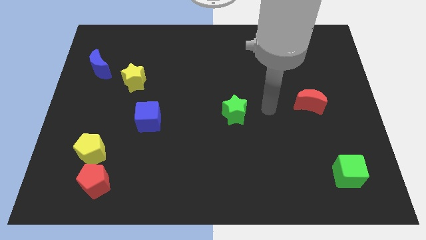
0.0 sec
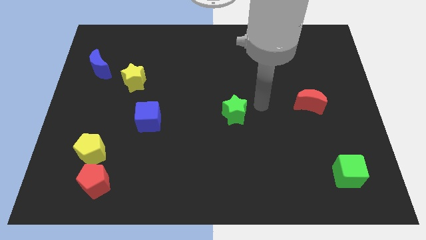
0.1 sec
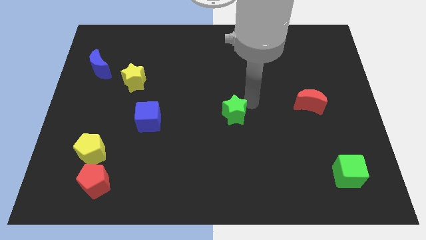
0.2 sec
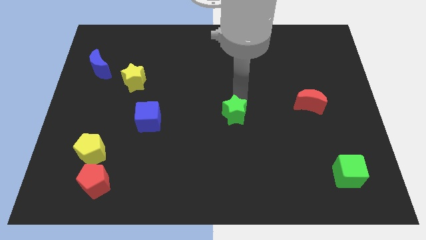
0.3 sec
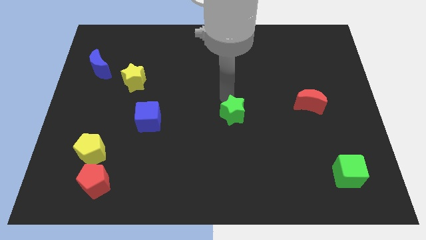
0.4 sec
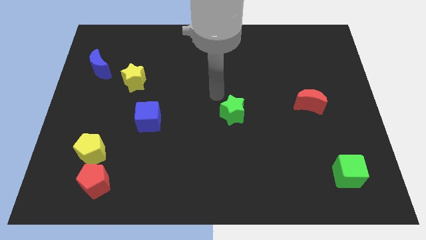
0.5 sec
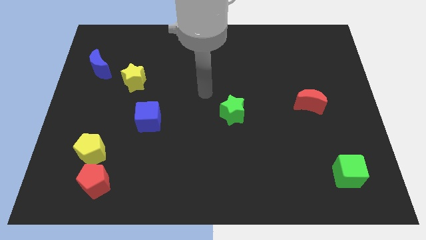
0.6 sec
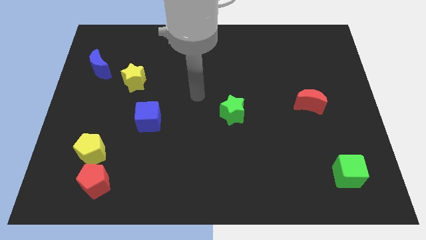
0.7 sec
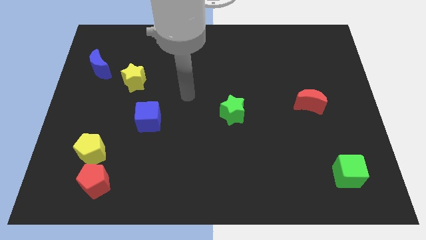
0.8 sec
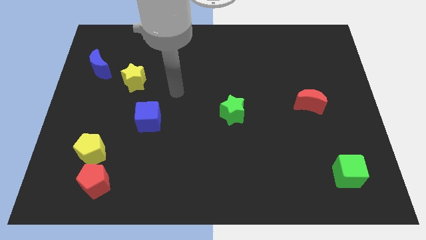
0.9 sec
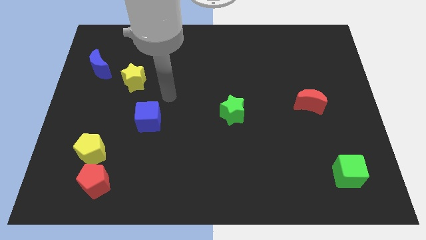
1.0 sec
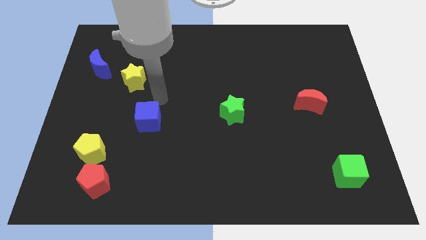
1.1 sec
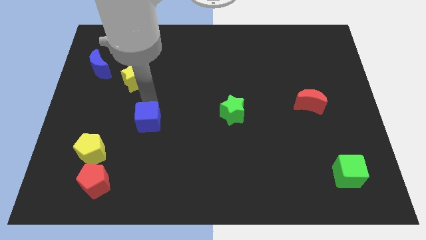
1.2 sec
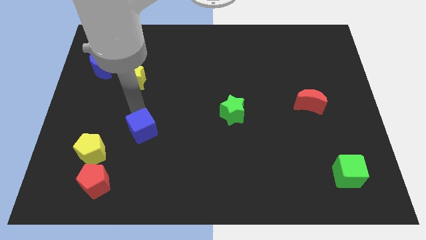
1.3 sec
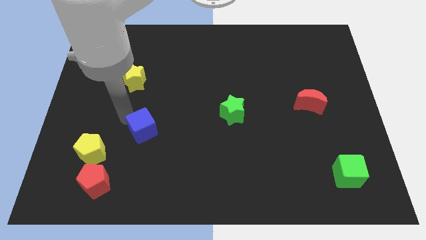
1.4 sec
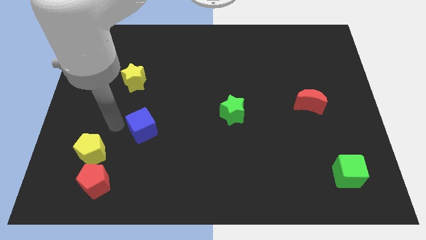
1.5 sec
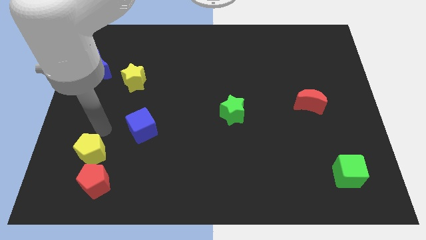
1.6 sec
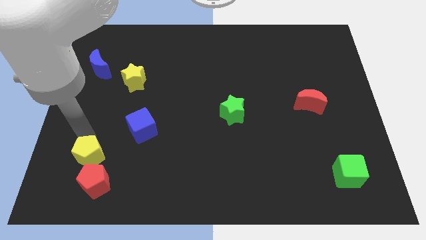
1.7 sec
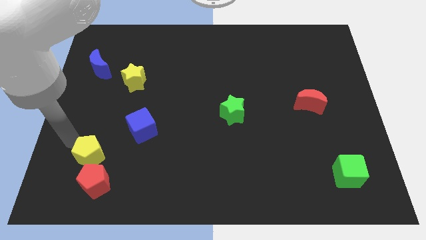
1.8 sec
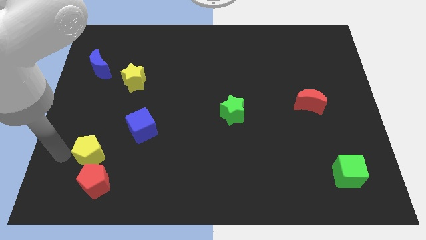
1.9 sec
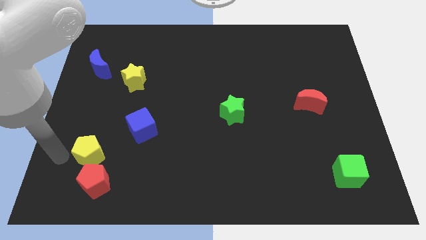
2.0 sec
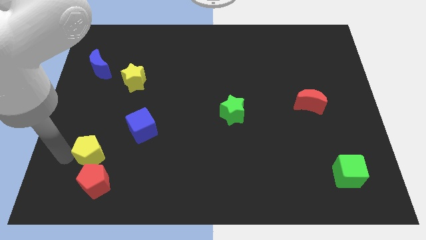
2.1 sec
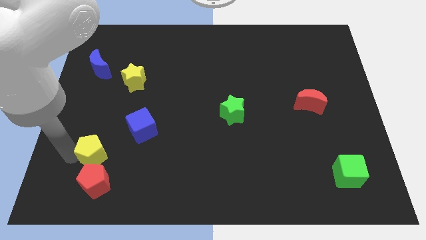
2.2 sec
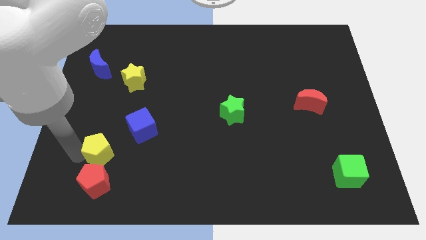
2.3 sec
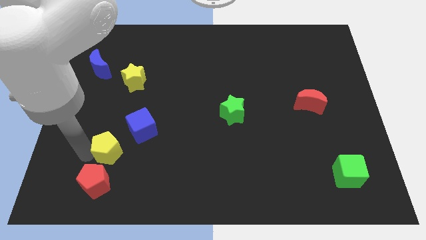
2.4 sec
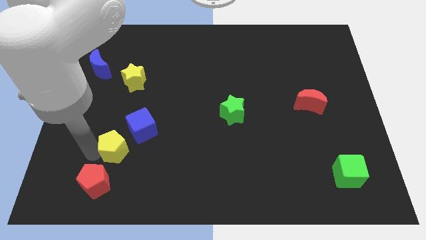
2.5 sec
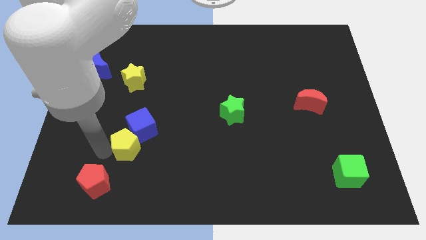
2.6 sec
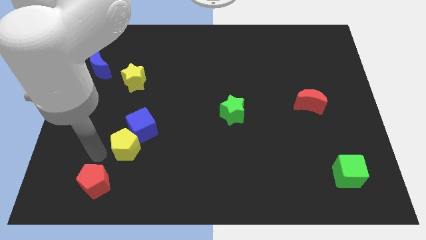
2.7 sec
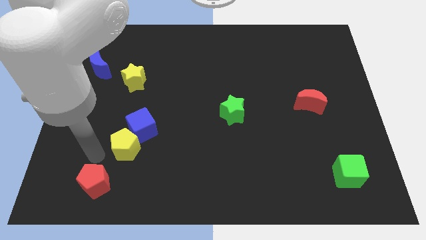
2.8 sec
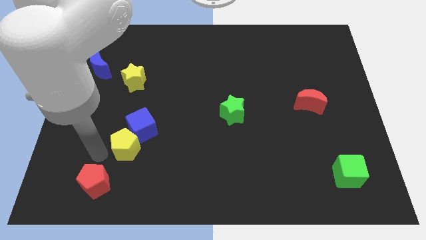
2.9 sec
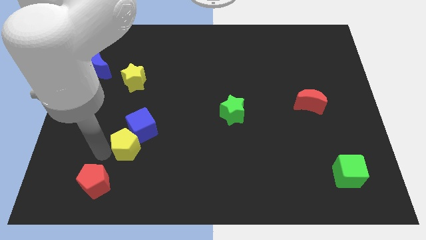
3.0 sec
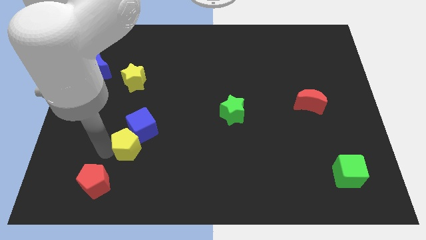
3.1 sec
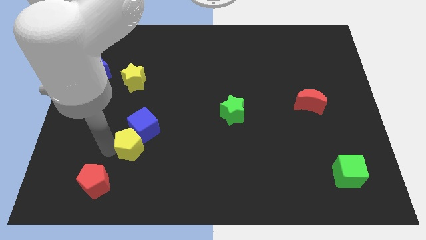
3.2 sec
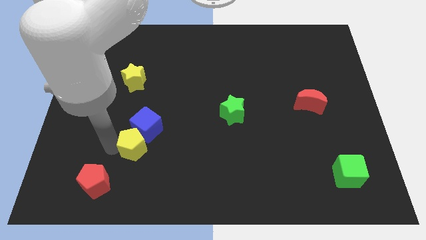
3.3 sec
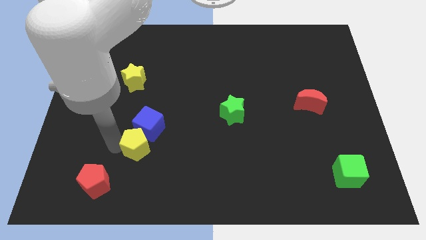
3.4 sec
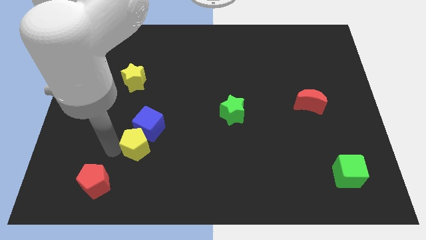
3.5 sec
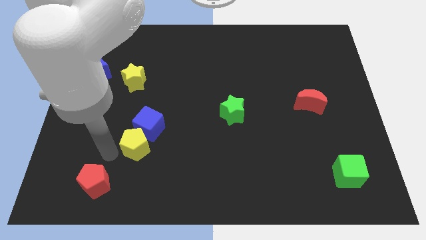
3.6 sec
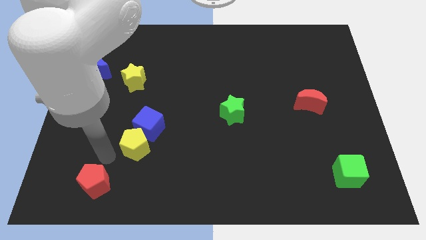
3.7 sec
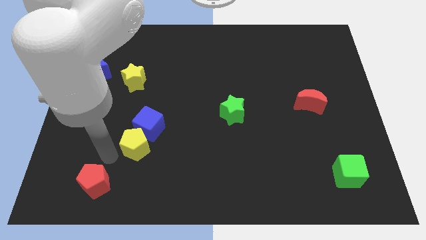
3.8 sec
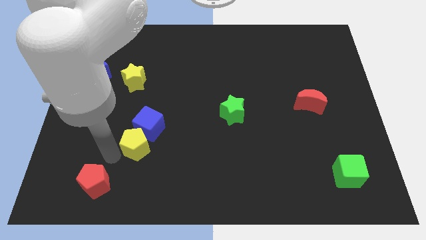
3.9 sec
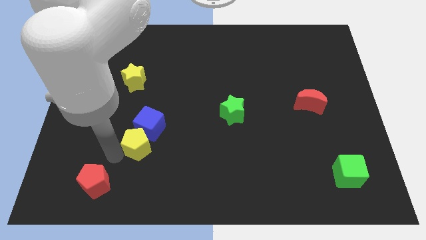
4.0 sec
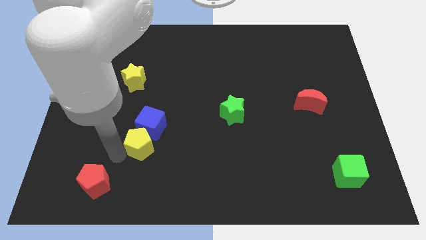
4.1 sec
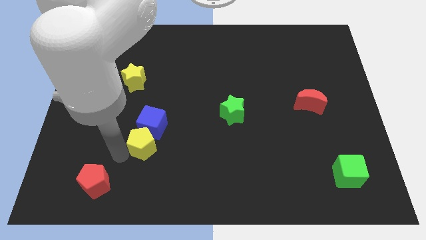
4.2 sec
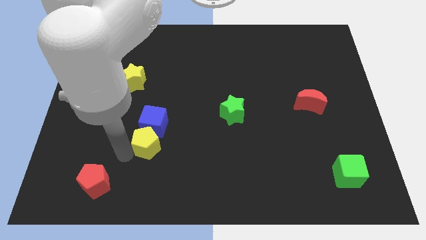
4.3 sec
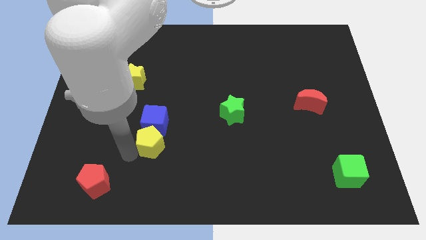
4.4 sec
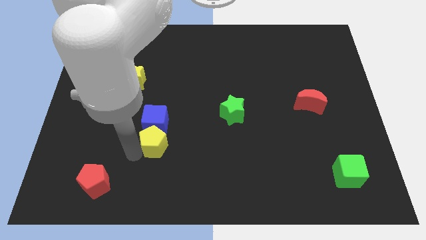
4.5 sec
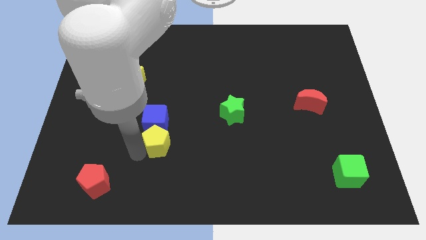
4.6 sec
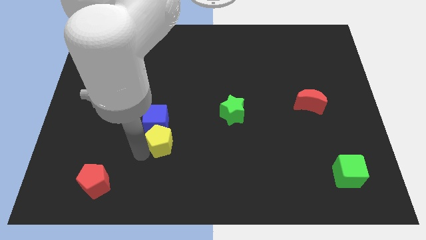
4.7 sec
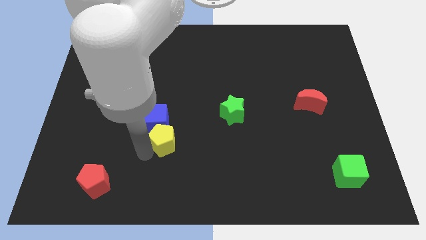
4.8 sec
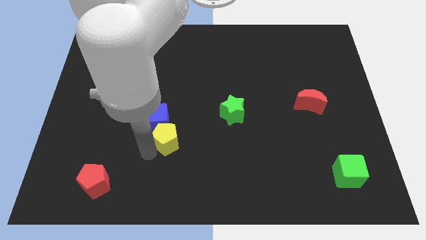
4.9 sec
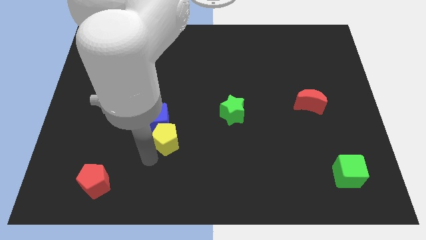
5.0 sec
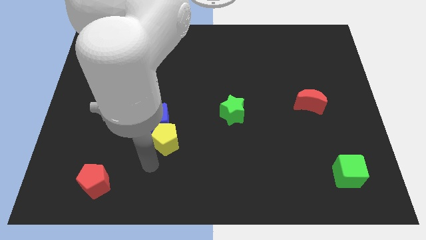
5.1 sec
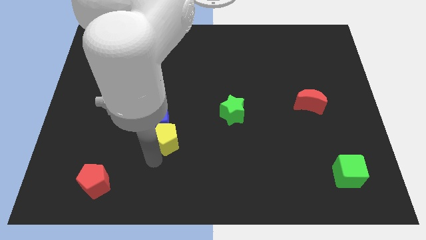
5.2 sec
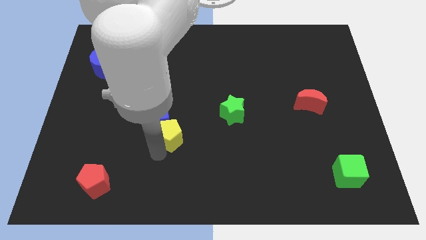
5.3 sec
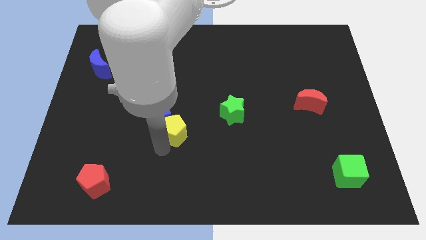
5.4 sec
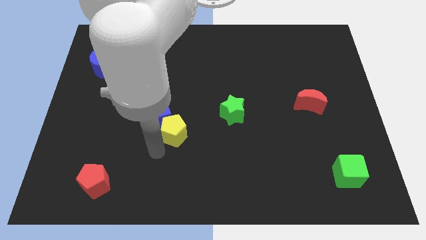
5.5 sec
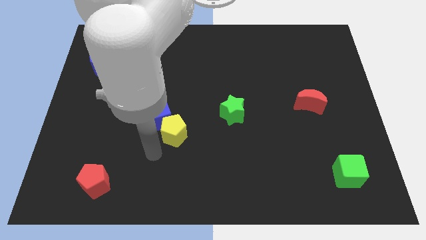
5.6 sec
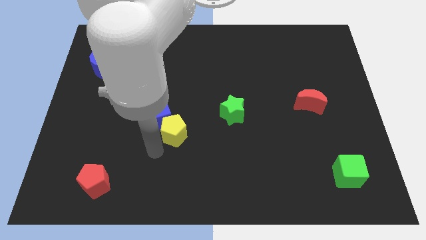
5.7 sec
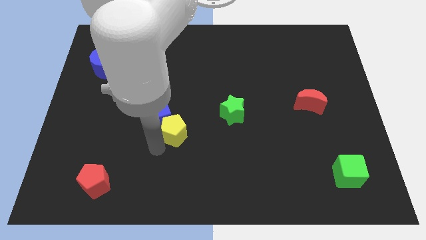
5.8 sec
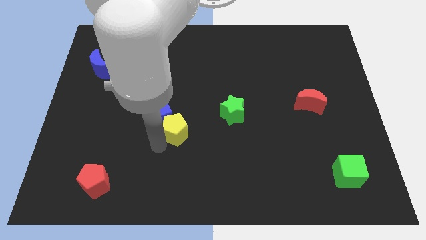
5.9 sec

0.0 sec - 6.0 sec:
slide the yellow pentagon to the center

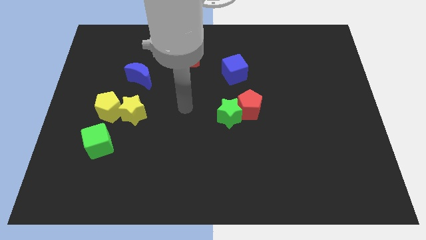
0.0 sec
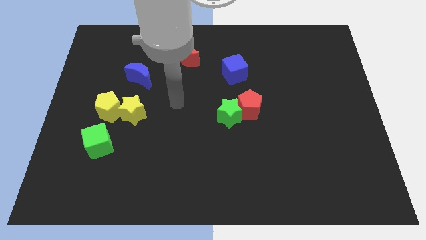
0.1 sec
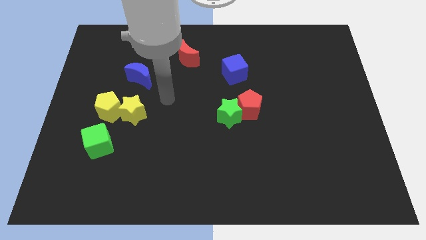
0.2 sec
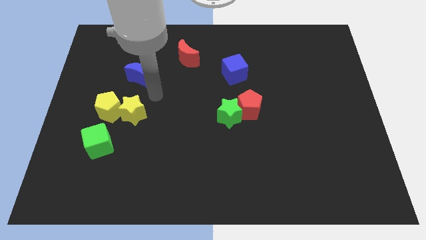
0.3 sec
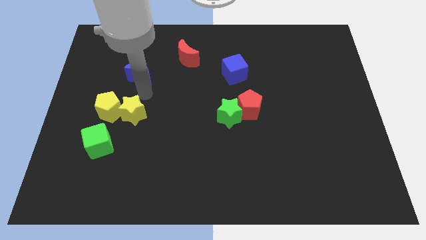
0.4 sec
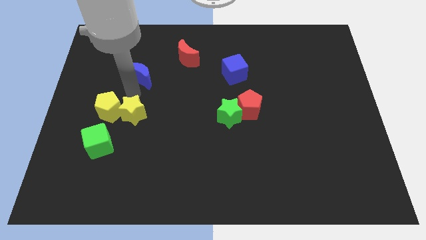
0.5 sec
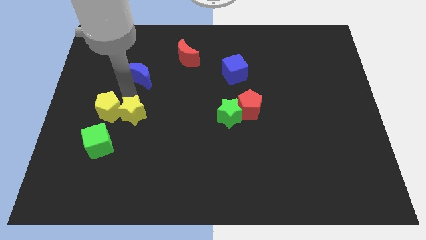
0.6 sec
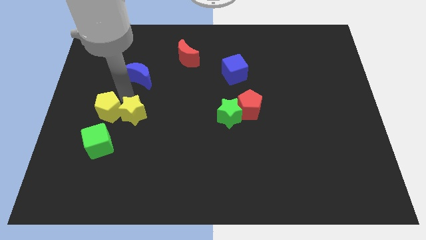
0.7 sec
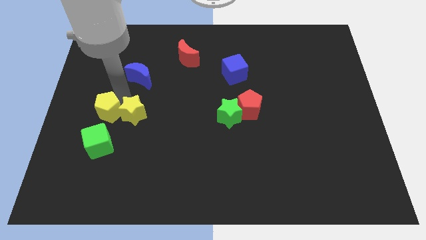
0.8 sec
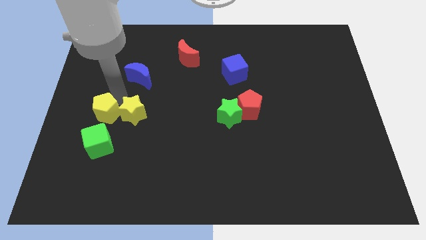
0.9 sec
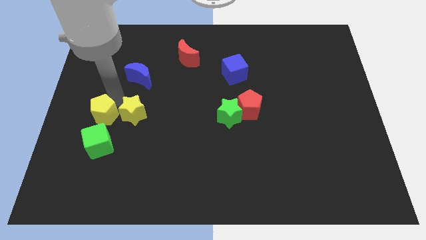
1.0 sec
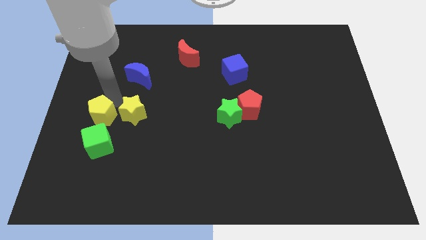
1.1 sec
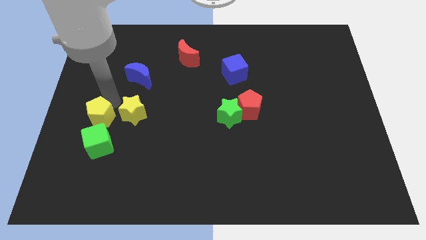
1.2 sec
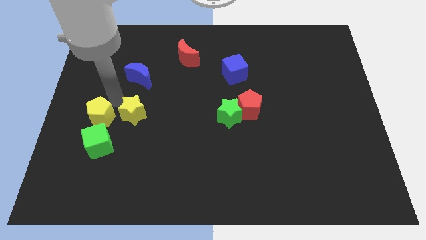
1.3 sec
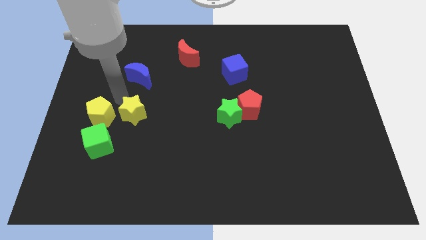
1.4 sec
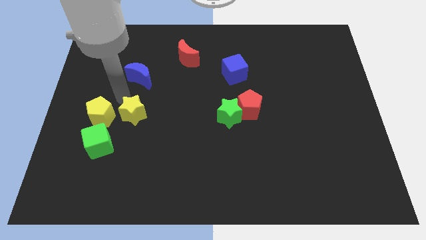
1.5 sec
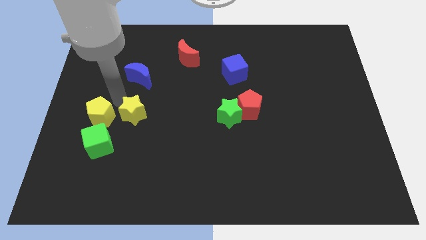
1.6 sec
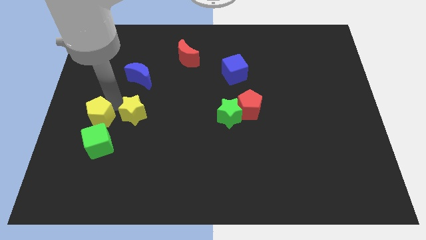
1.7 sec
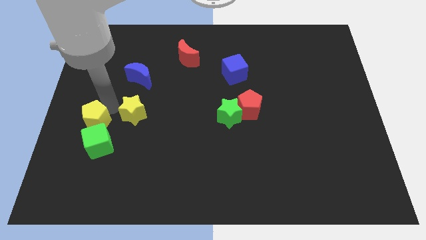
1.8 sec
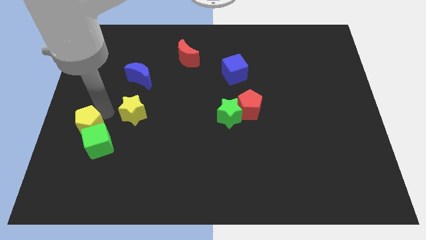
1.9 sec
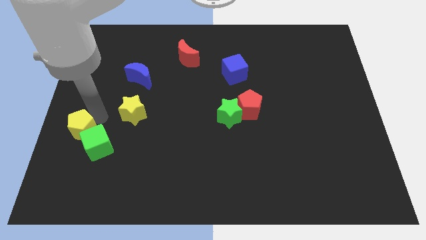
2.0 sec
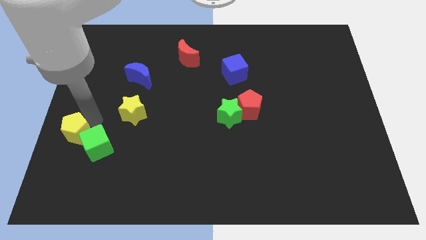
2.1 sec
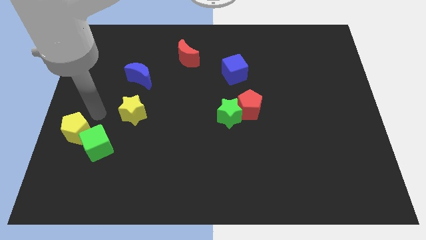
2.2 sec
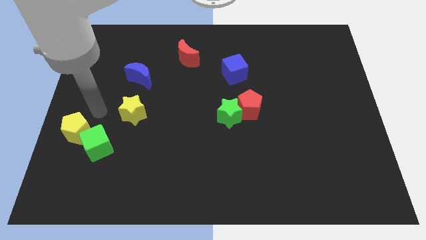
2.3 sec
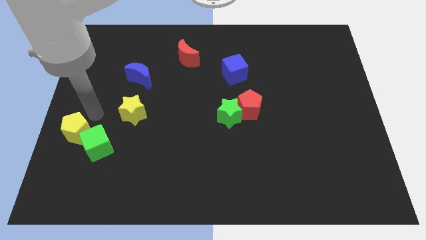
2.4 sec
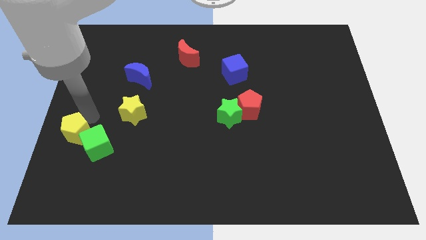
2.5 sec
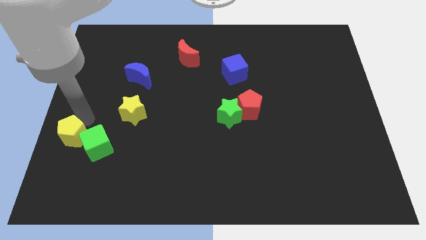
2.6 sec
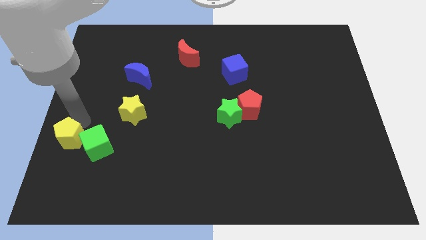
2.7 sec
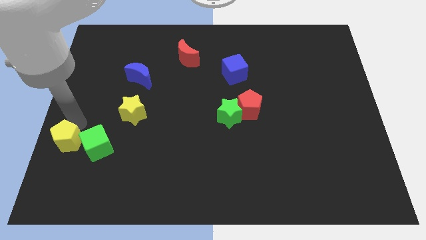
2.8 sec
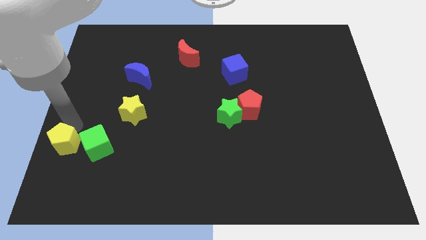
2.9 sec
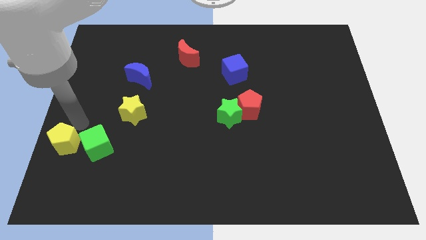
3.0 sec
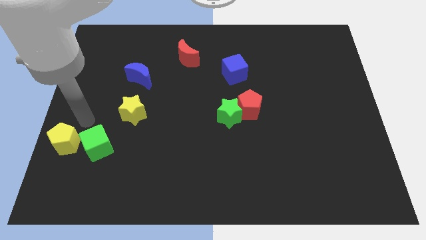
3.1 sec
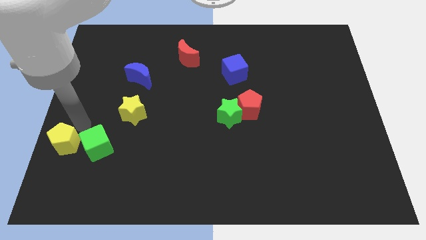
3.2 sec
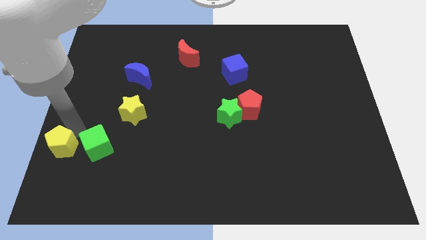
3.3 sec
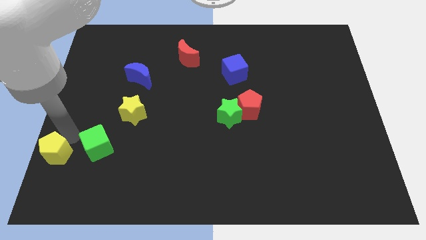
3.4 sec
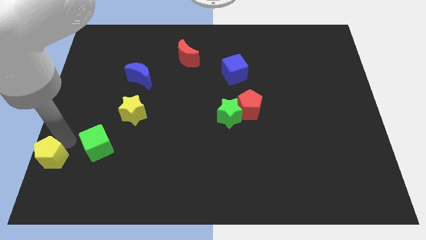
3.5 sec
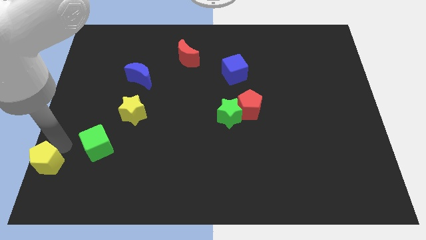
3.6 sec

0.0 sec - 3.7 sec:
move the yellow pentagon to the bottom left
